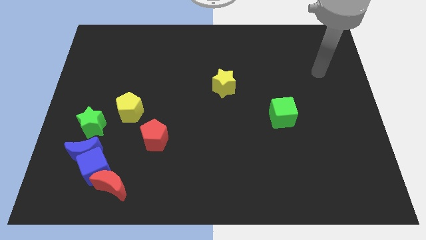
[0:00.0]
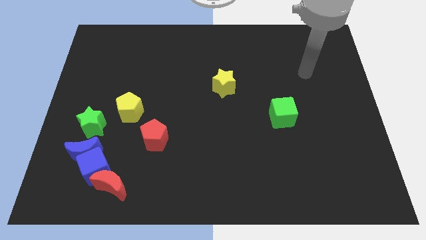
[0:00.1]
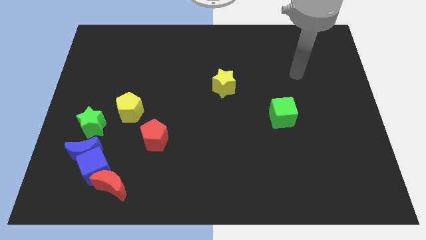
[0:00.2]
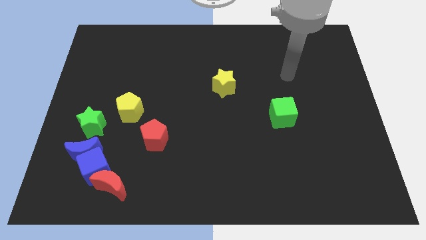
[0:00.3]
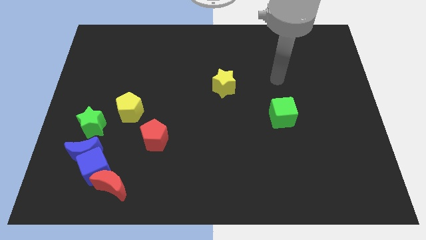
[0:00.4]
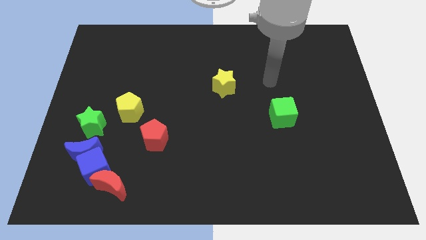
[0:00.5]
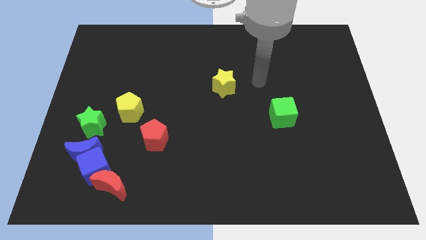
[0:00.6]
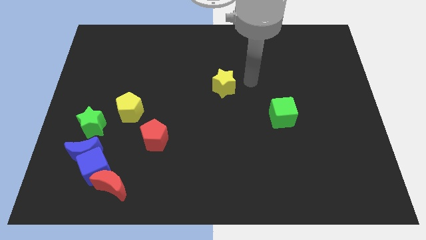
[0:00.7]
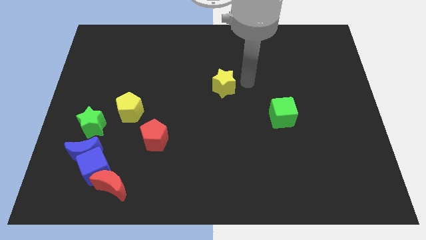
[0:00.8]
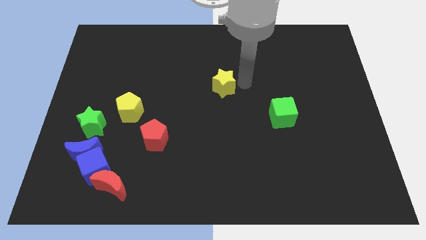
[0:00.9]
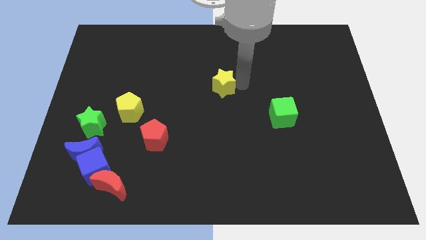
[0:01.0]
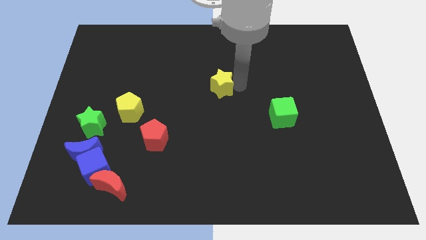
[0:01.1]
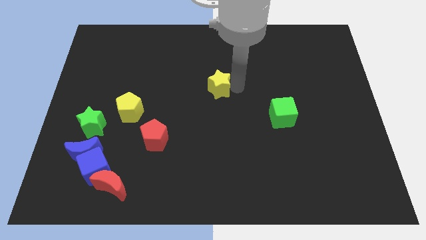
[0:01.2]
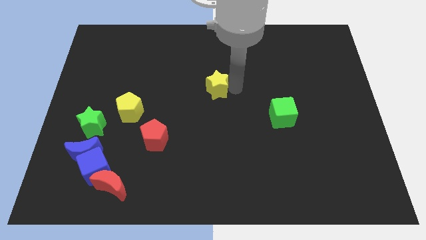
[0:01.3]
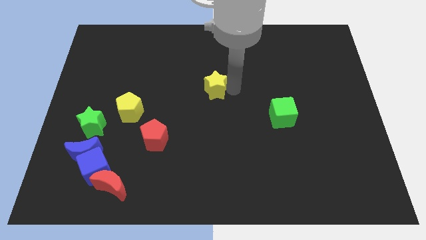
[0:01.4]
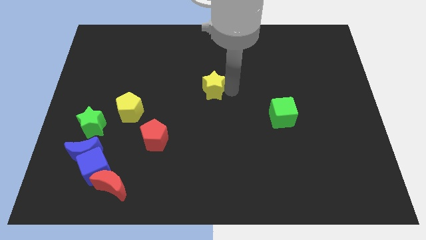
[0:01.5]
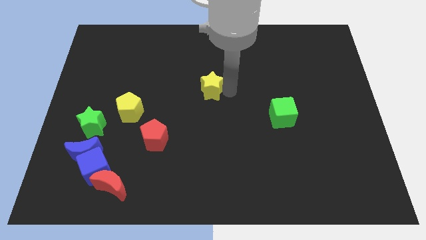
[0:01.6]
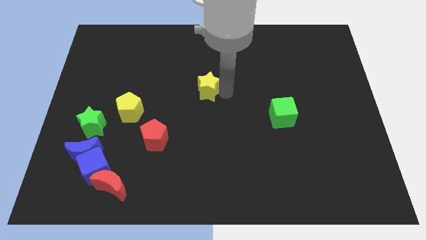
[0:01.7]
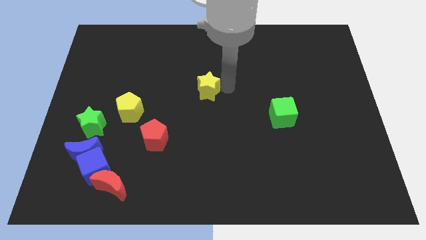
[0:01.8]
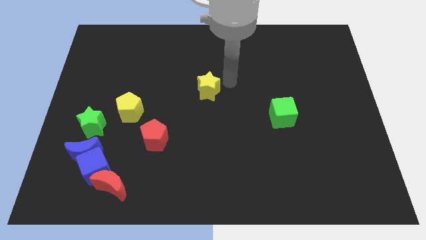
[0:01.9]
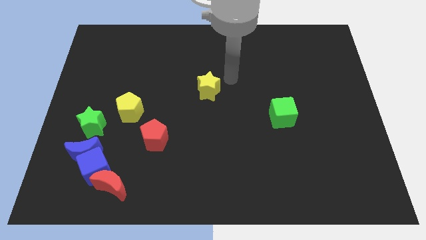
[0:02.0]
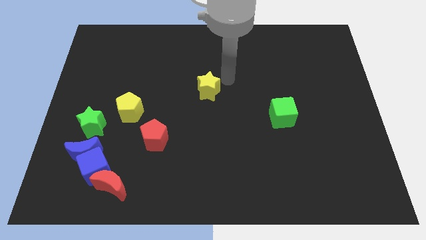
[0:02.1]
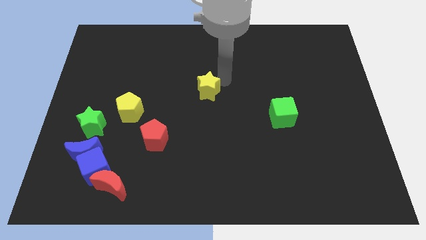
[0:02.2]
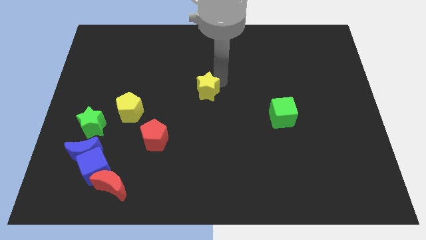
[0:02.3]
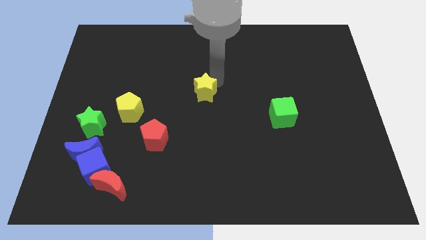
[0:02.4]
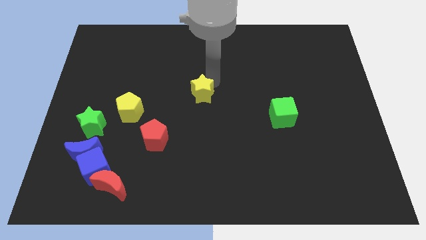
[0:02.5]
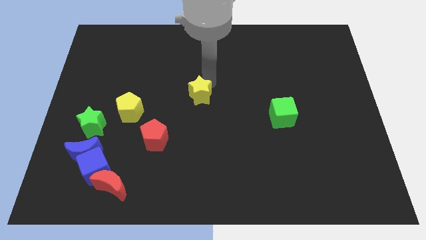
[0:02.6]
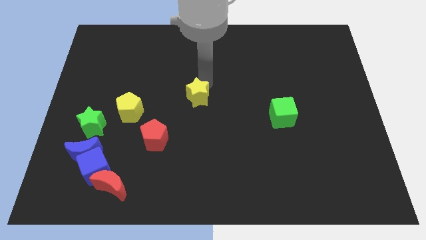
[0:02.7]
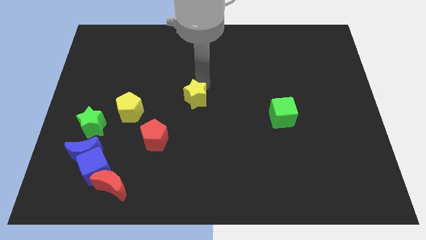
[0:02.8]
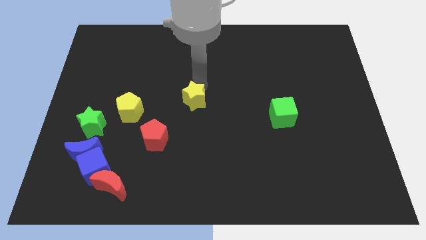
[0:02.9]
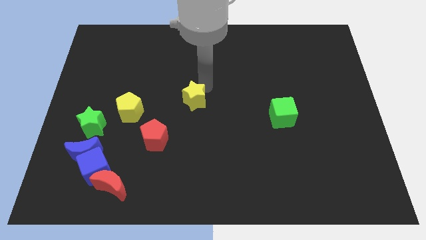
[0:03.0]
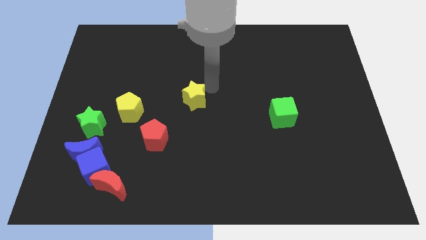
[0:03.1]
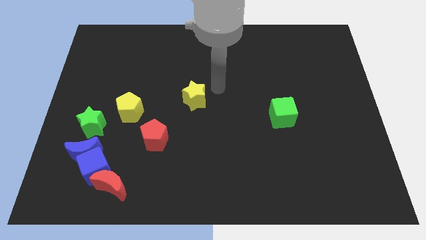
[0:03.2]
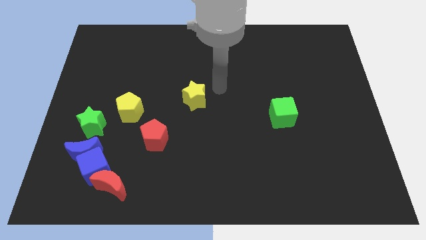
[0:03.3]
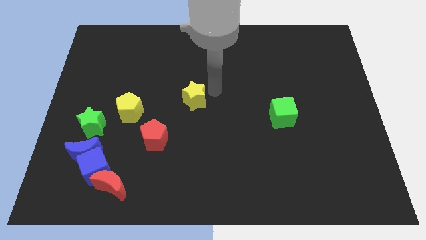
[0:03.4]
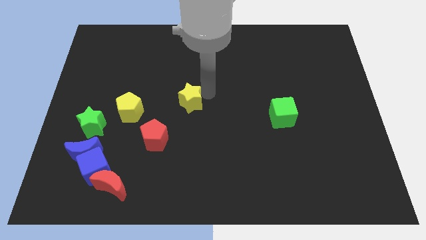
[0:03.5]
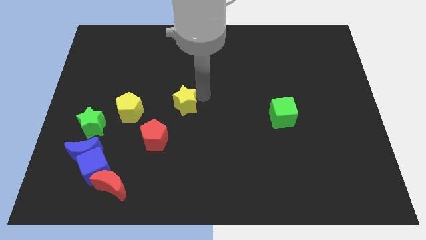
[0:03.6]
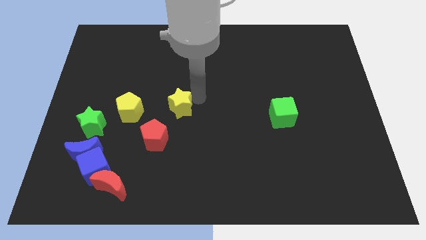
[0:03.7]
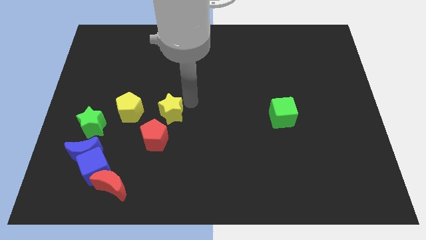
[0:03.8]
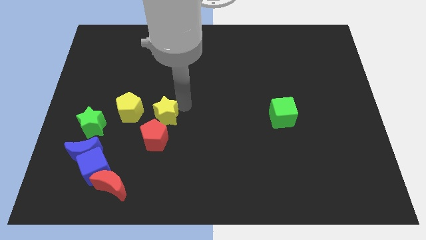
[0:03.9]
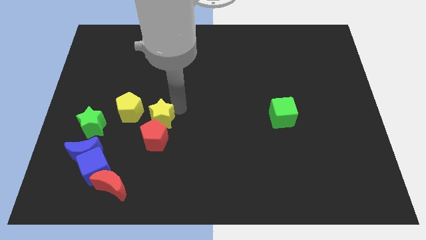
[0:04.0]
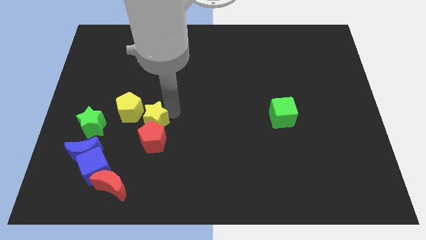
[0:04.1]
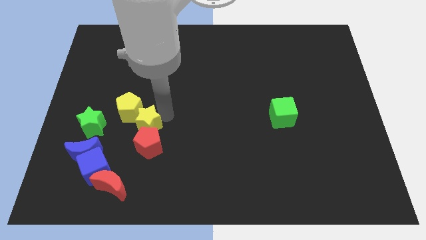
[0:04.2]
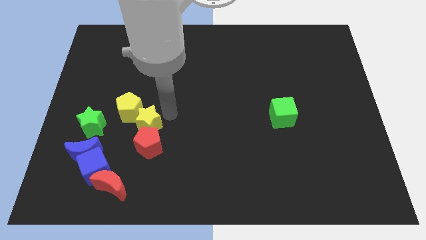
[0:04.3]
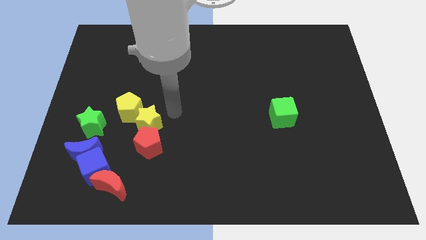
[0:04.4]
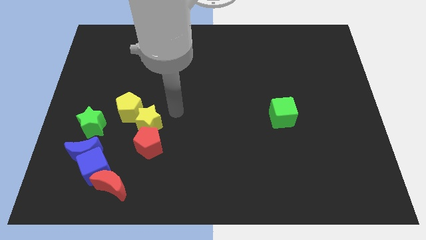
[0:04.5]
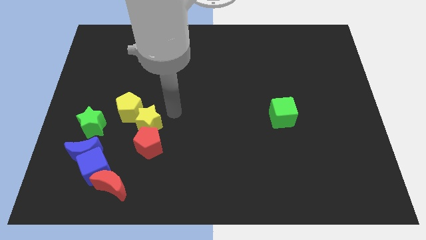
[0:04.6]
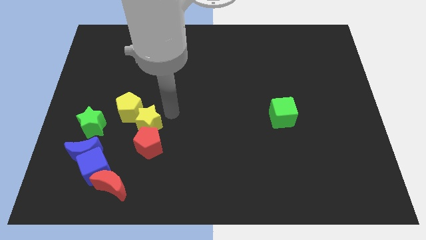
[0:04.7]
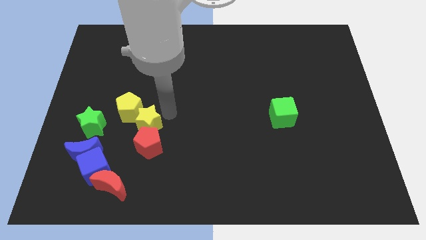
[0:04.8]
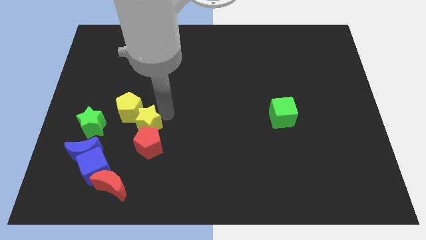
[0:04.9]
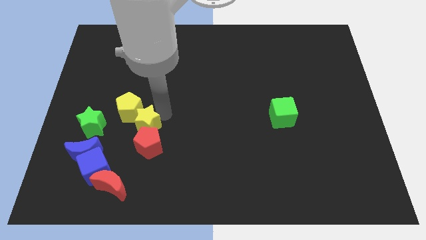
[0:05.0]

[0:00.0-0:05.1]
slide the yellow star to the bottom of the yellow pentagon

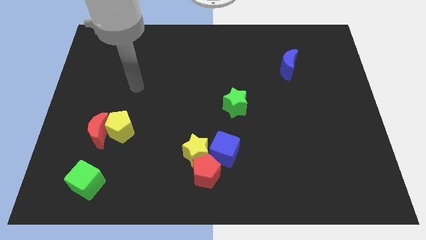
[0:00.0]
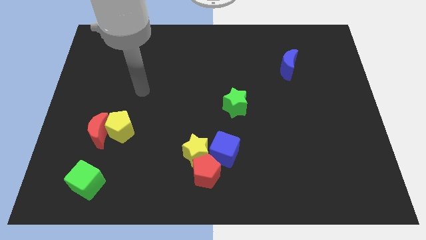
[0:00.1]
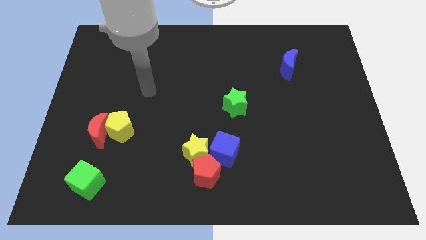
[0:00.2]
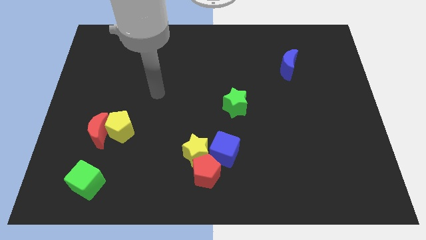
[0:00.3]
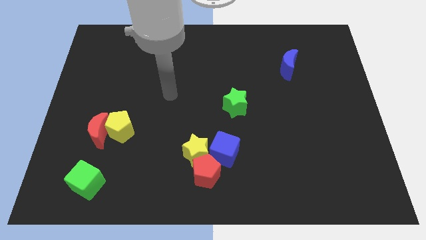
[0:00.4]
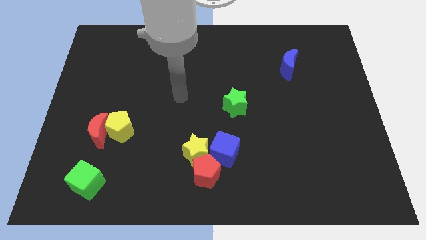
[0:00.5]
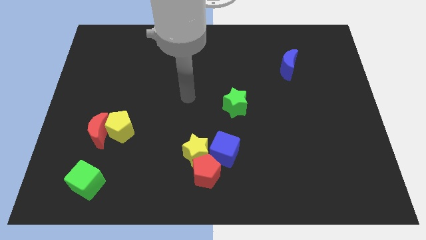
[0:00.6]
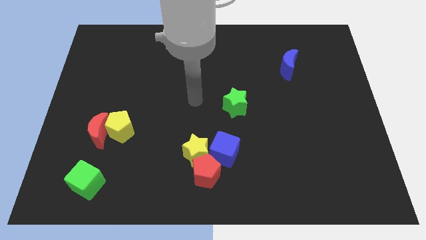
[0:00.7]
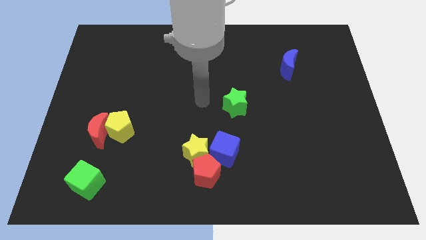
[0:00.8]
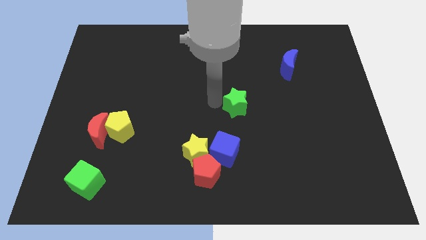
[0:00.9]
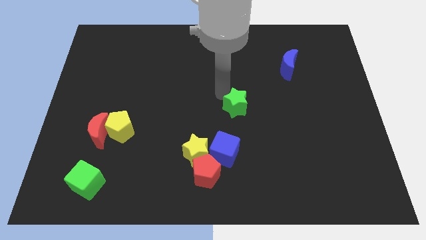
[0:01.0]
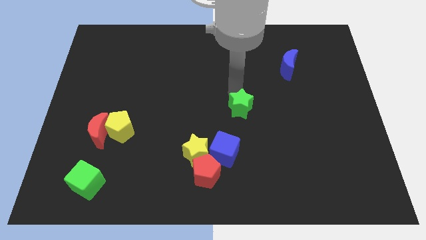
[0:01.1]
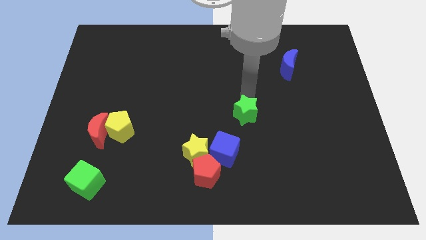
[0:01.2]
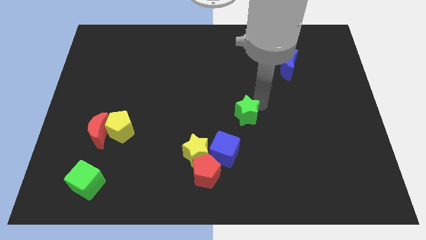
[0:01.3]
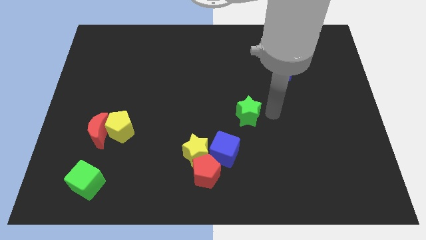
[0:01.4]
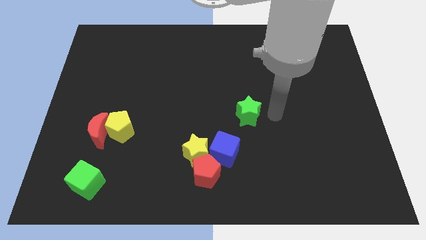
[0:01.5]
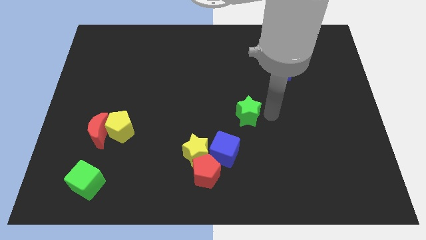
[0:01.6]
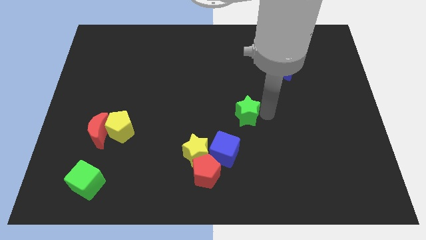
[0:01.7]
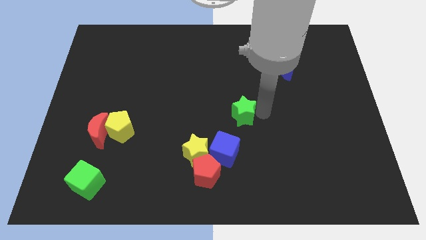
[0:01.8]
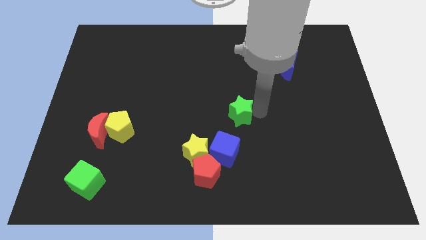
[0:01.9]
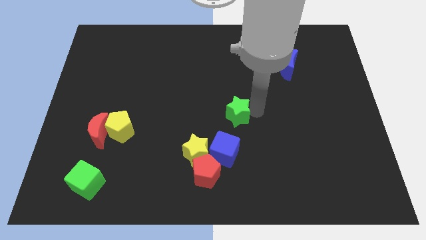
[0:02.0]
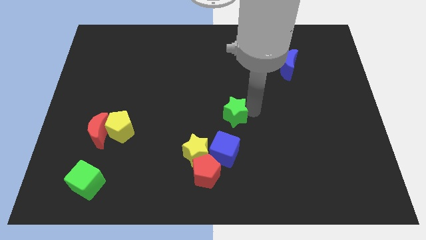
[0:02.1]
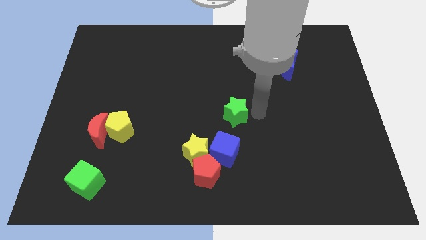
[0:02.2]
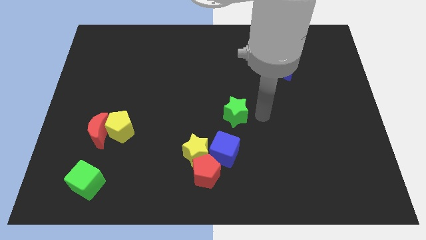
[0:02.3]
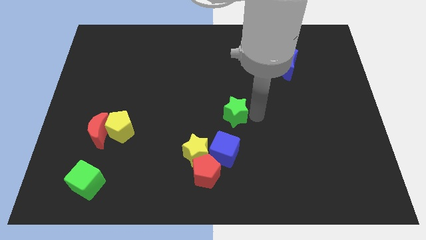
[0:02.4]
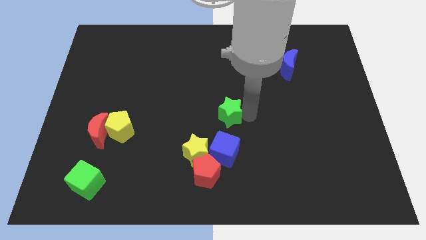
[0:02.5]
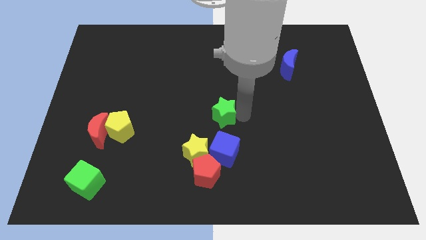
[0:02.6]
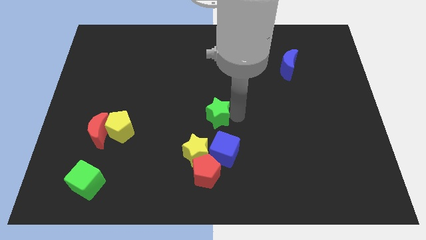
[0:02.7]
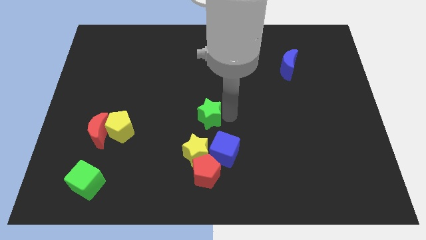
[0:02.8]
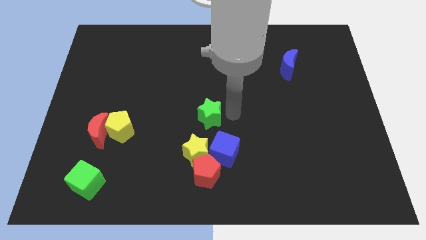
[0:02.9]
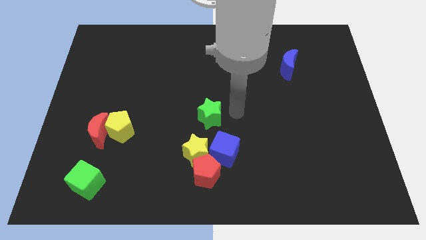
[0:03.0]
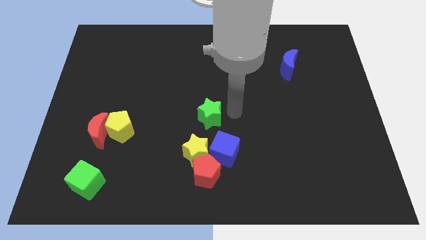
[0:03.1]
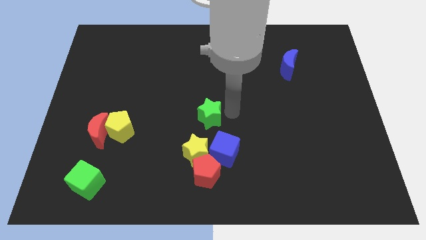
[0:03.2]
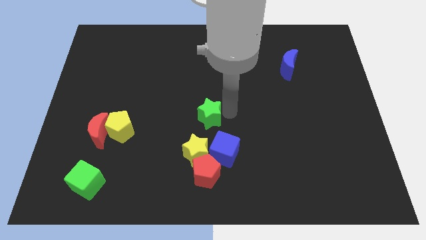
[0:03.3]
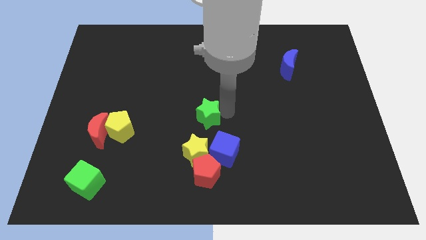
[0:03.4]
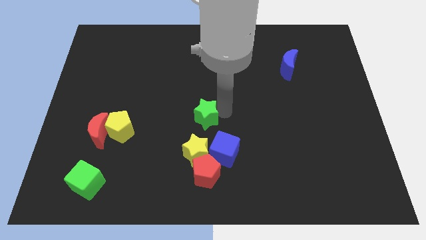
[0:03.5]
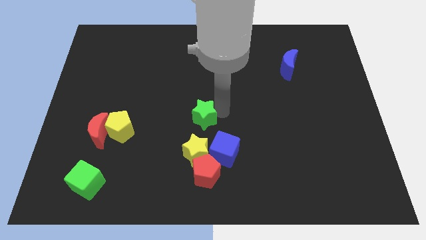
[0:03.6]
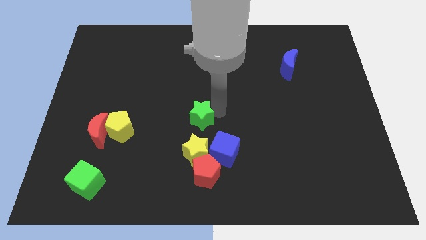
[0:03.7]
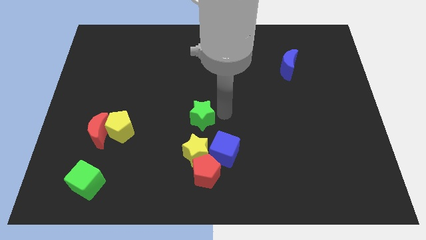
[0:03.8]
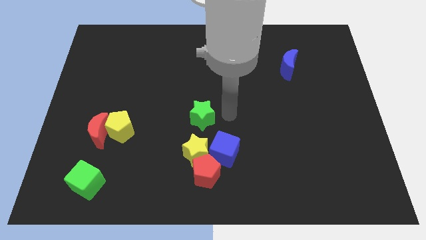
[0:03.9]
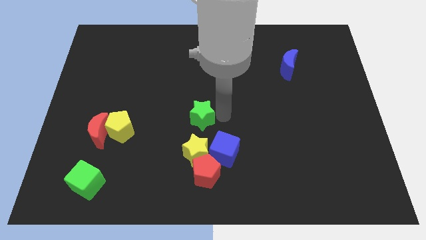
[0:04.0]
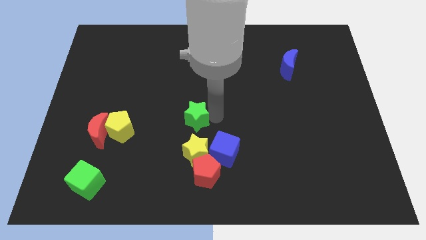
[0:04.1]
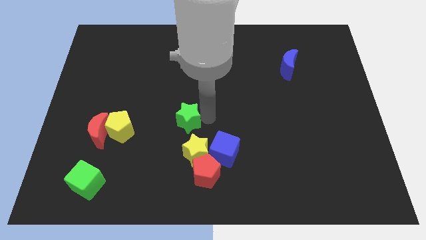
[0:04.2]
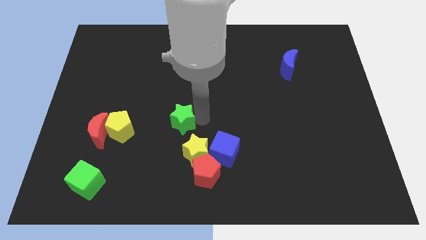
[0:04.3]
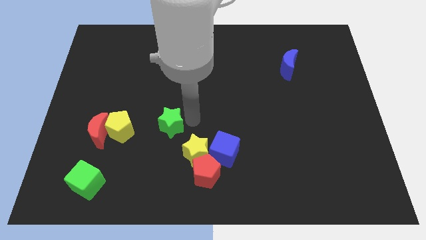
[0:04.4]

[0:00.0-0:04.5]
put the green star right of the red moon
